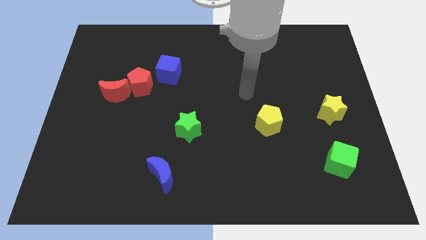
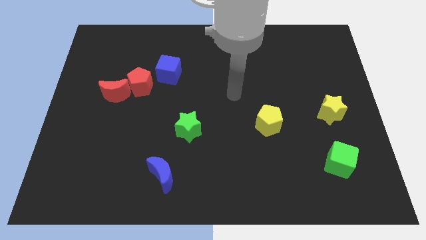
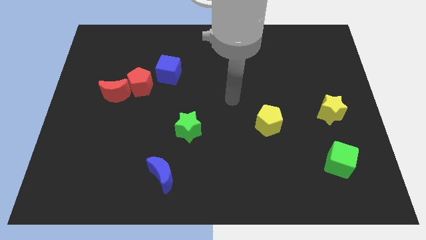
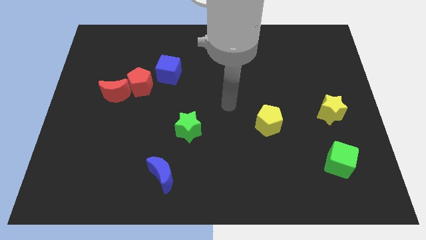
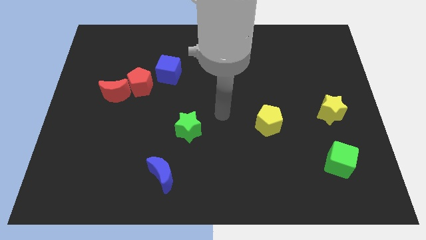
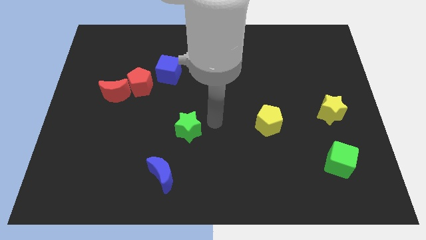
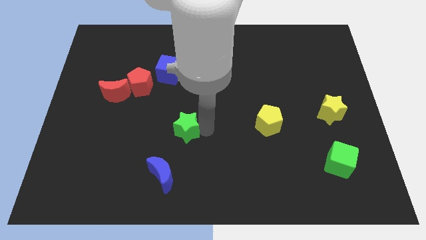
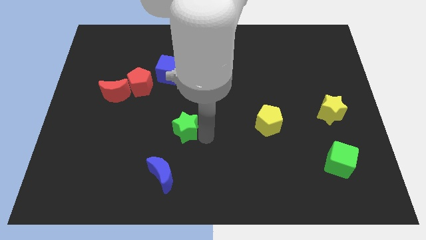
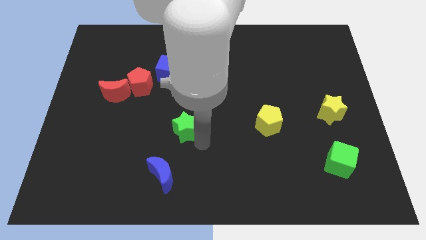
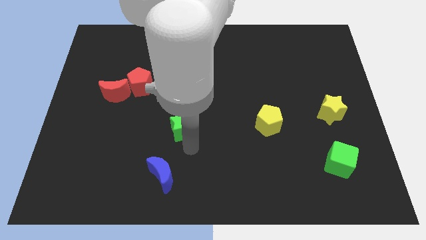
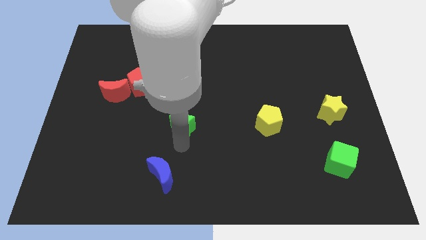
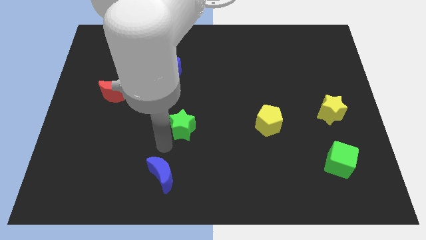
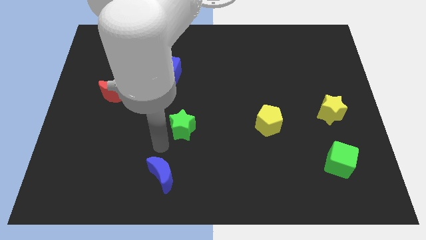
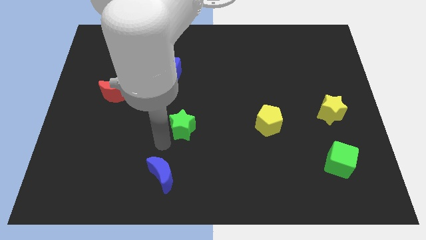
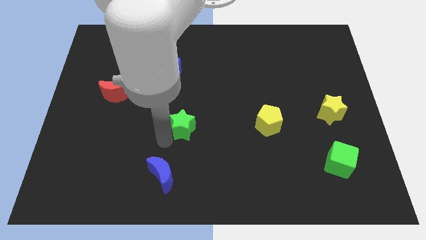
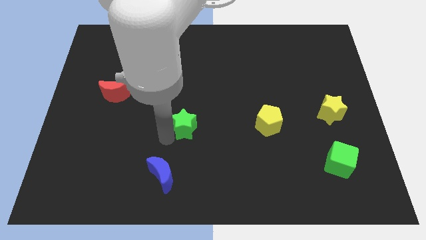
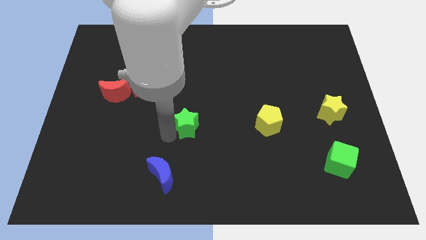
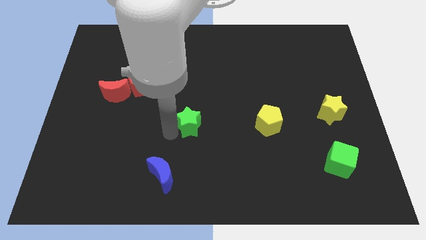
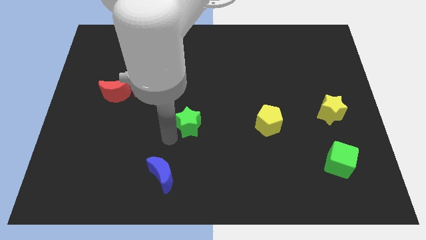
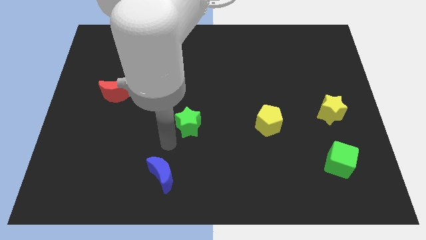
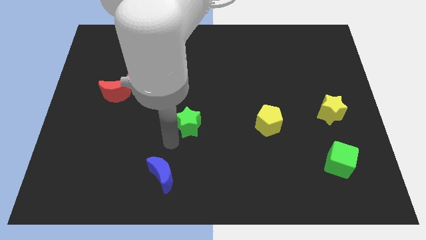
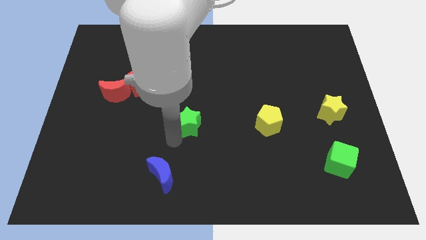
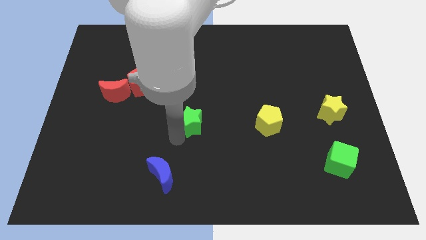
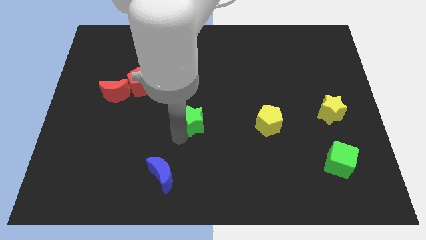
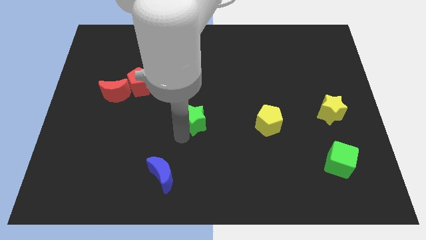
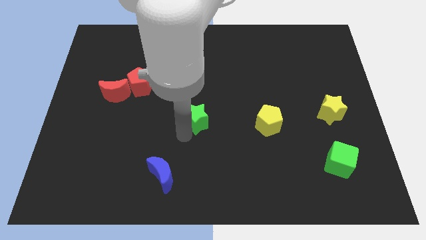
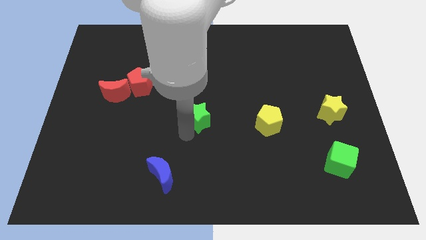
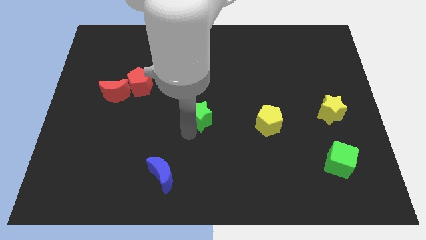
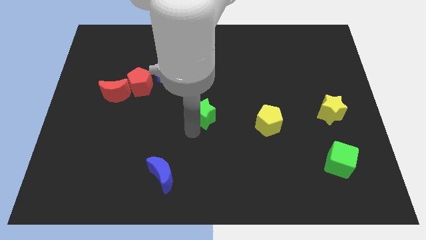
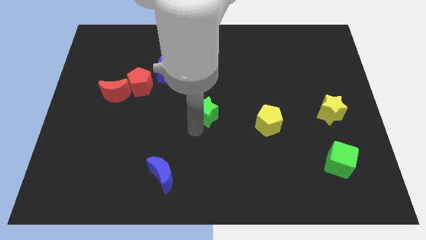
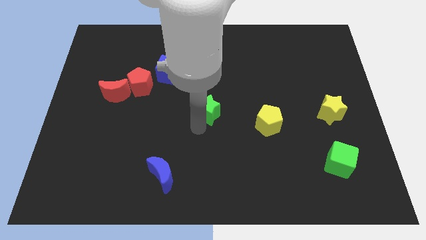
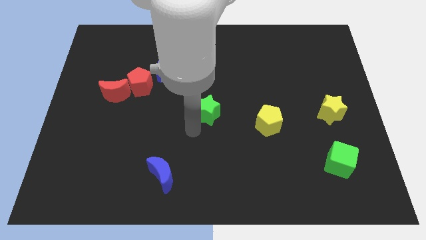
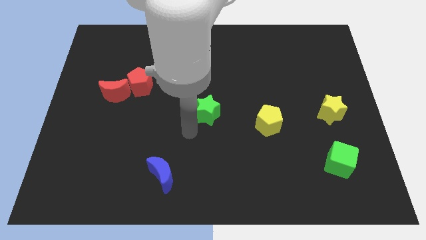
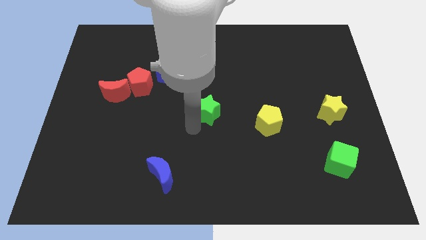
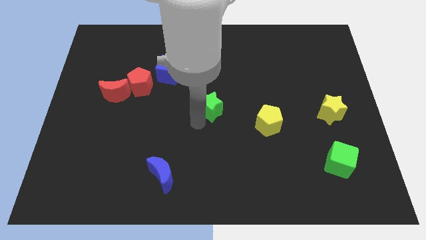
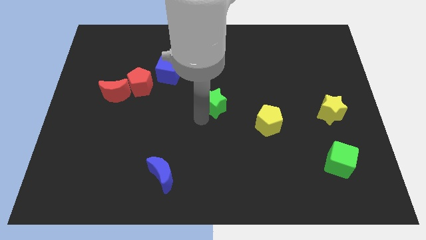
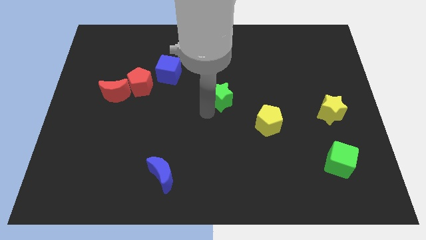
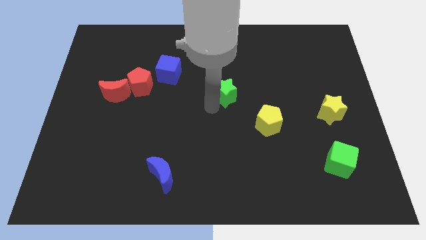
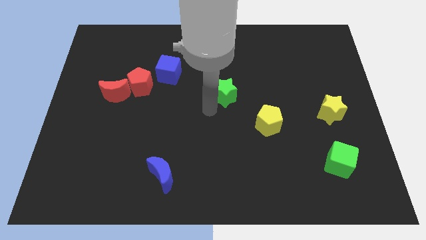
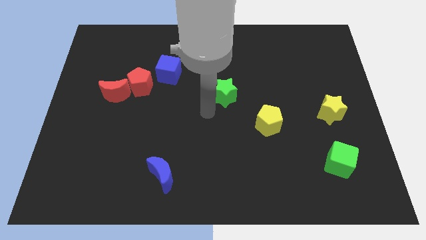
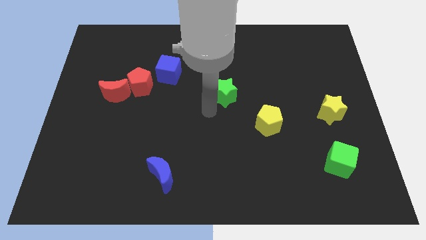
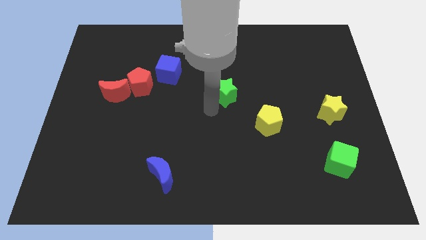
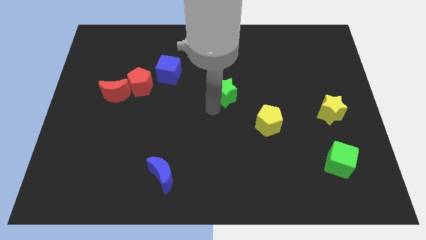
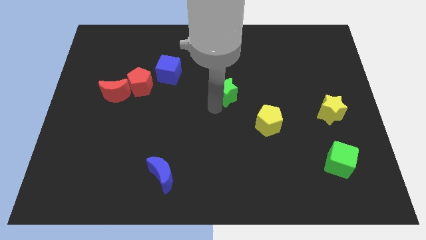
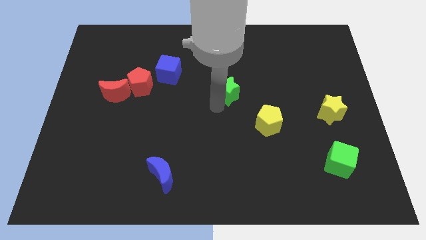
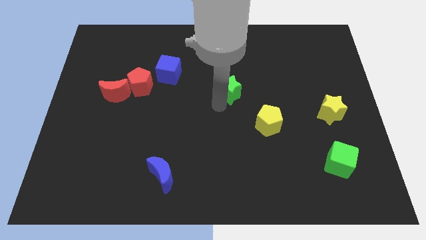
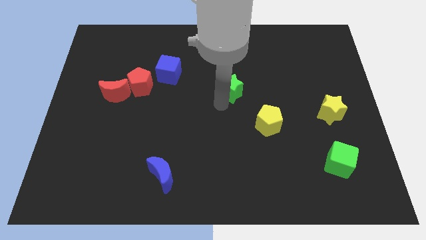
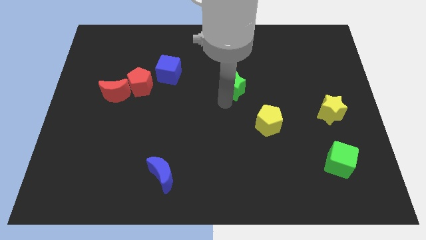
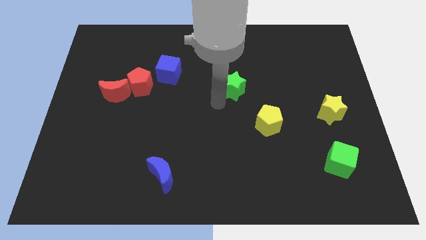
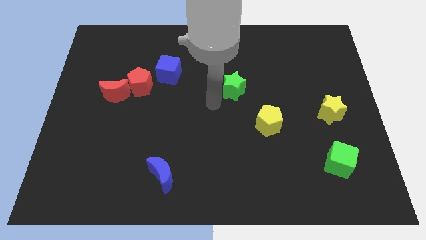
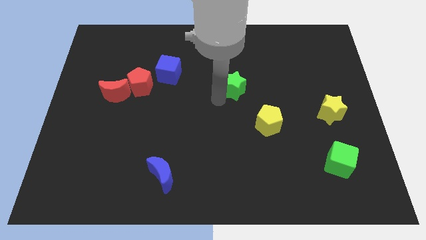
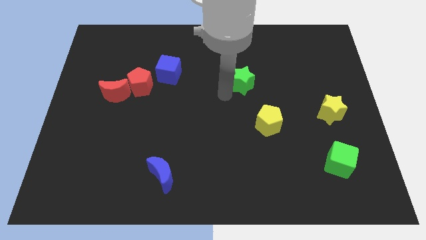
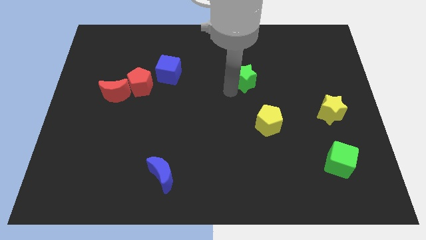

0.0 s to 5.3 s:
push the green star up and then right

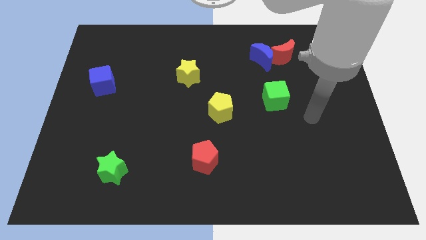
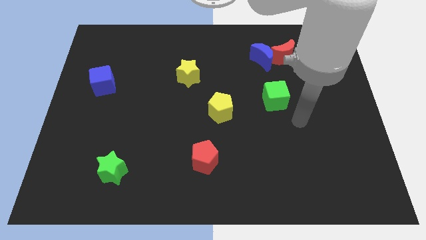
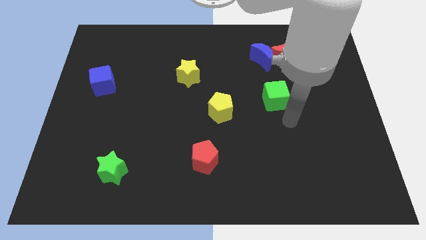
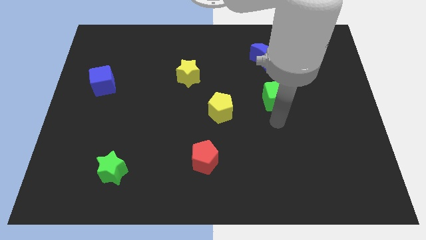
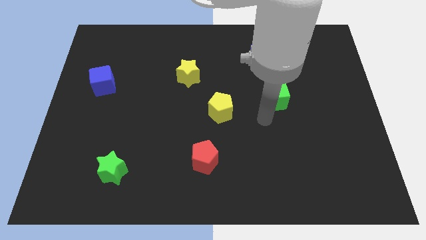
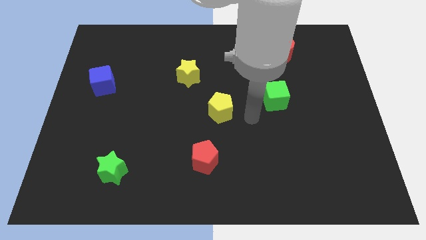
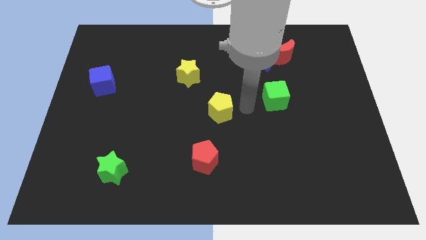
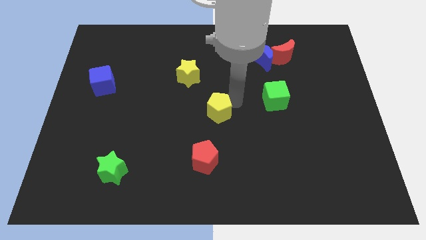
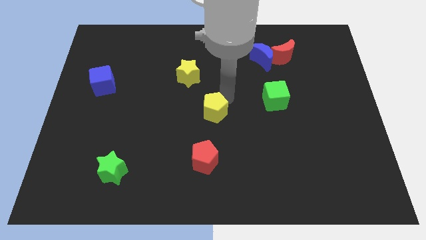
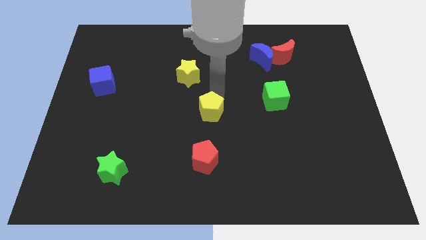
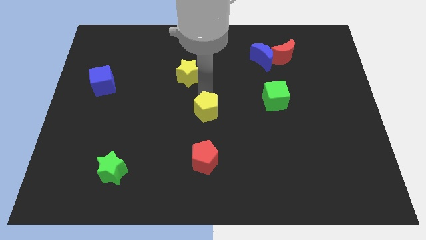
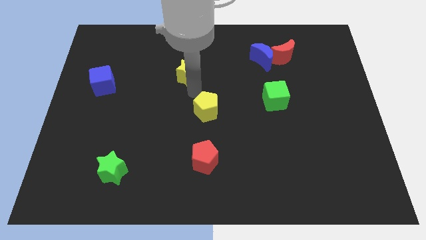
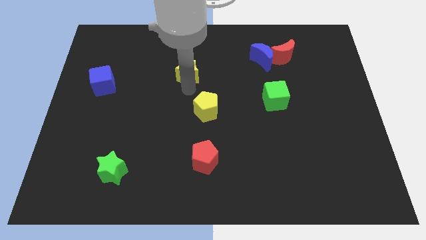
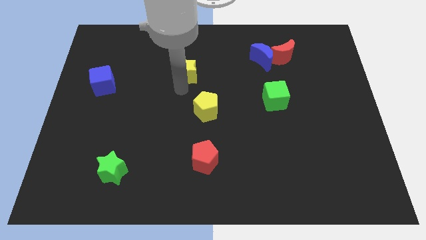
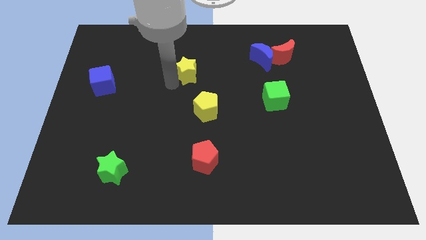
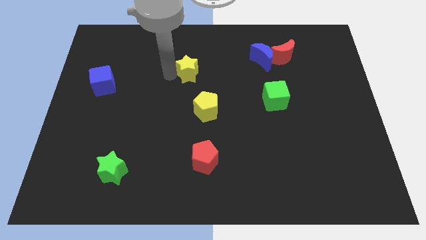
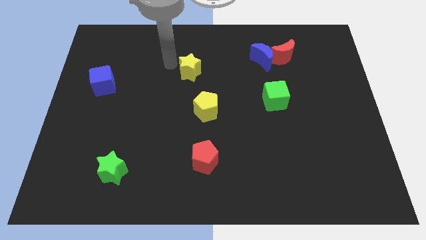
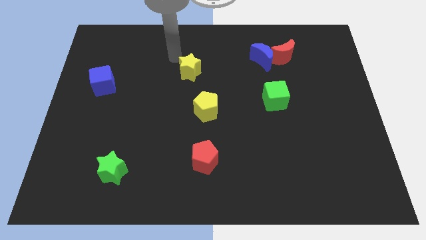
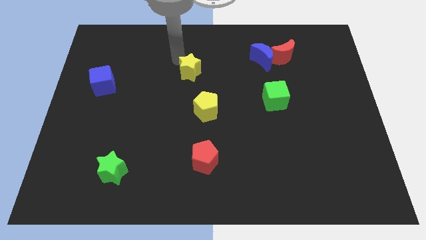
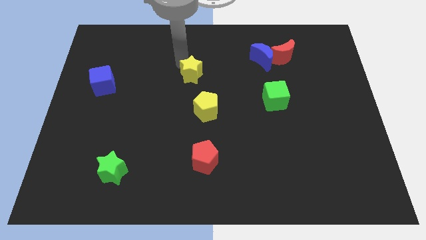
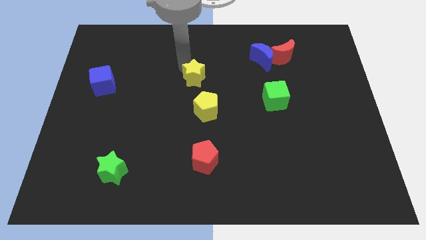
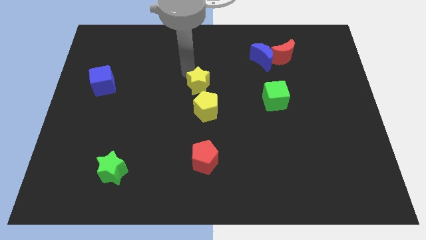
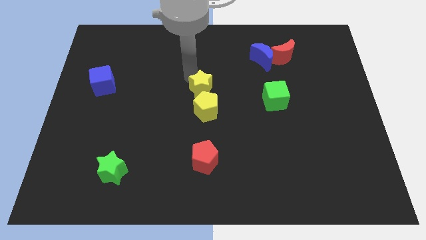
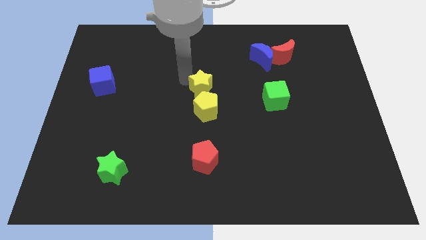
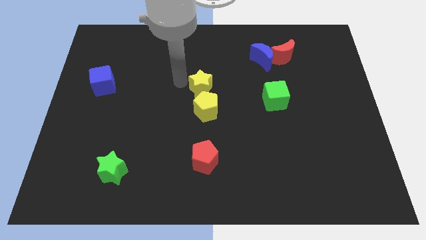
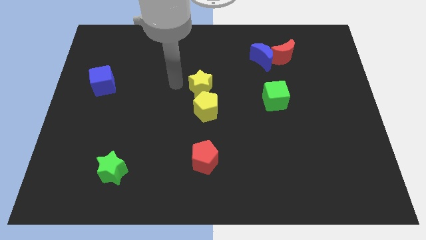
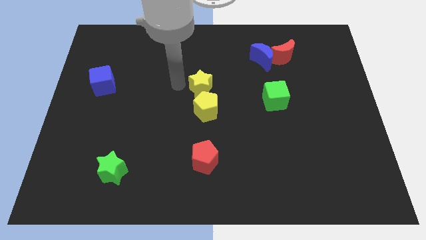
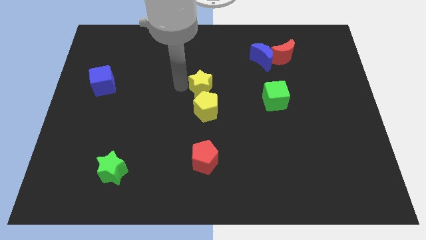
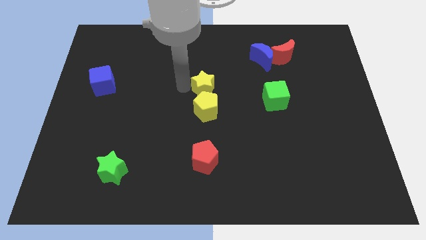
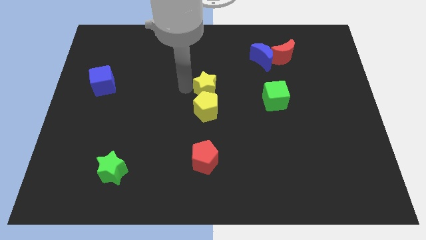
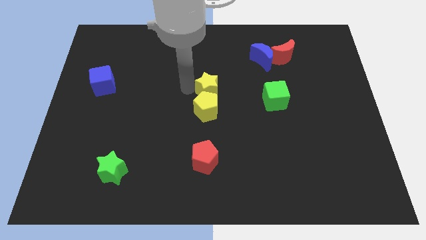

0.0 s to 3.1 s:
slightly move the yellow star diagonally downwards and right
